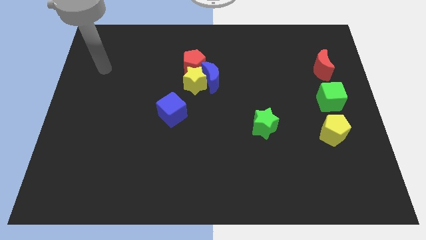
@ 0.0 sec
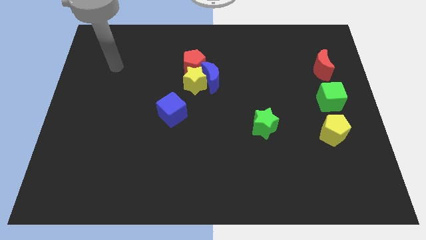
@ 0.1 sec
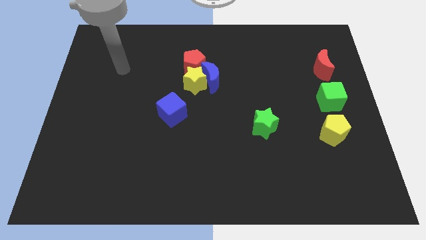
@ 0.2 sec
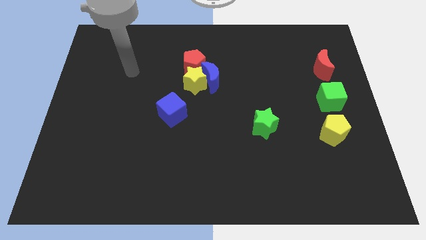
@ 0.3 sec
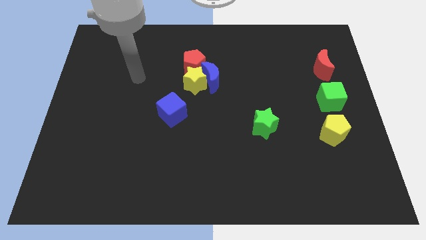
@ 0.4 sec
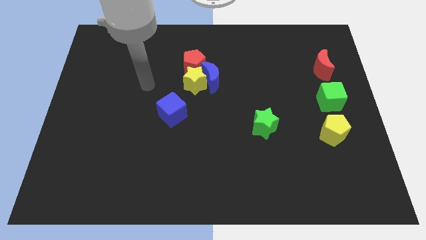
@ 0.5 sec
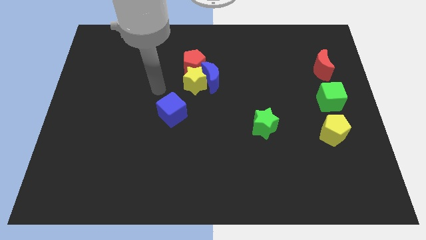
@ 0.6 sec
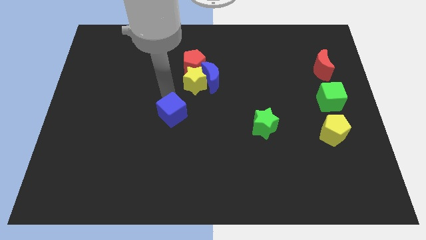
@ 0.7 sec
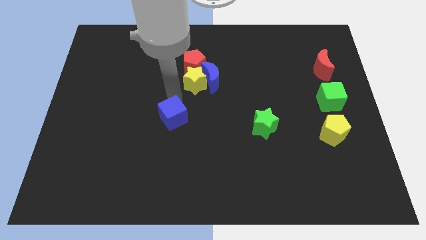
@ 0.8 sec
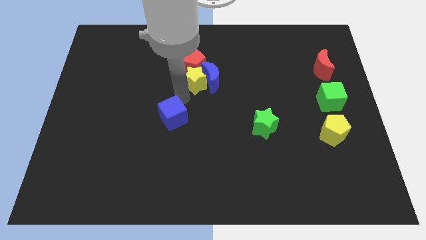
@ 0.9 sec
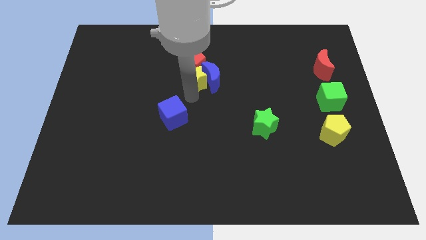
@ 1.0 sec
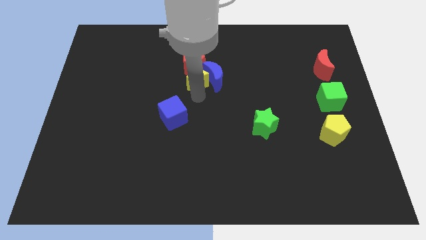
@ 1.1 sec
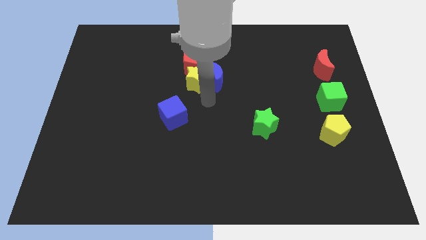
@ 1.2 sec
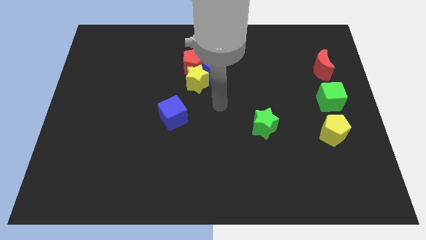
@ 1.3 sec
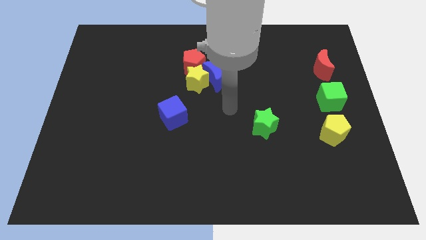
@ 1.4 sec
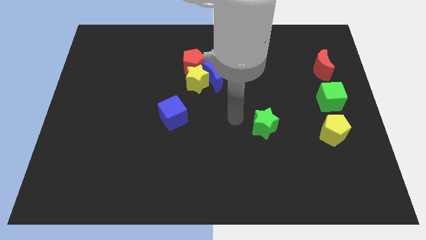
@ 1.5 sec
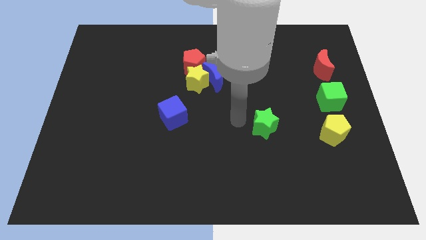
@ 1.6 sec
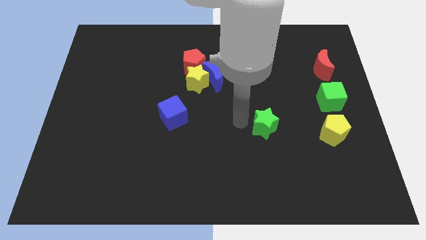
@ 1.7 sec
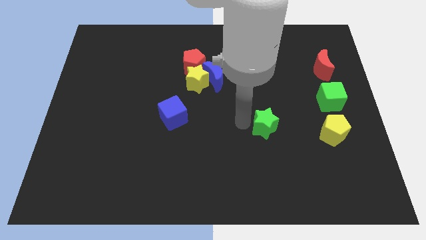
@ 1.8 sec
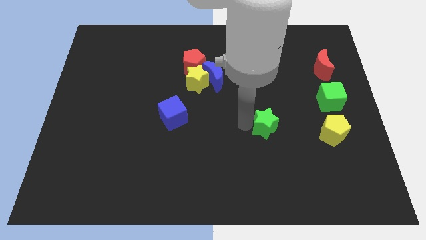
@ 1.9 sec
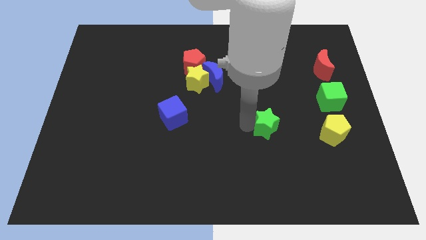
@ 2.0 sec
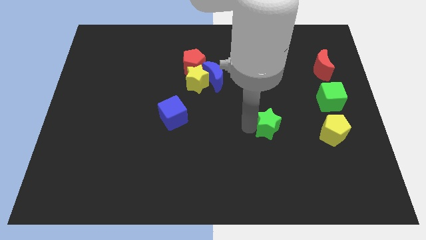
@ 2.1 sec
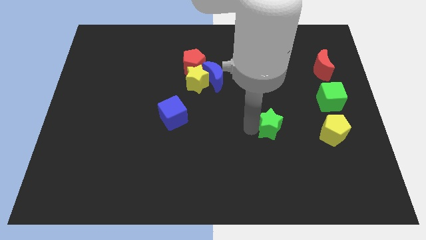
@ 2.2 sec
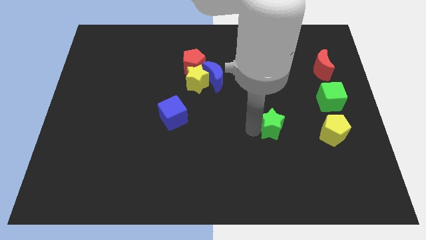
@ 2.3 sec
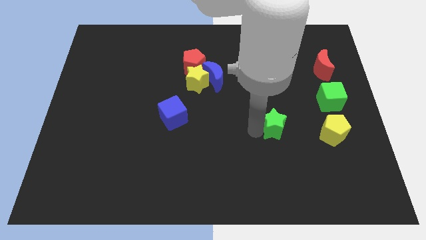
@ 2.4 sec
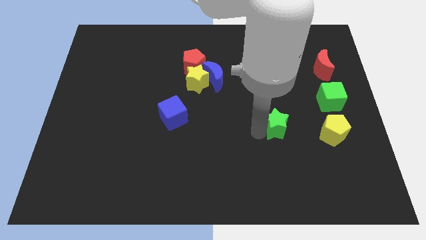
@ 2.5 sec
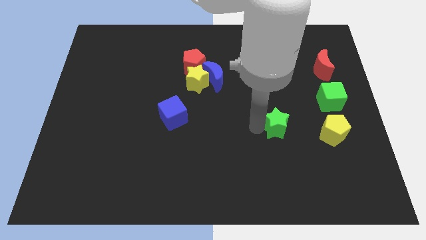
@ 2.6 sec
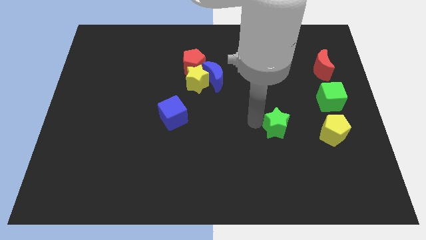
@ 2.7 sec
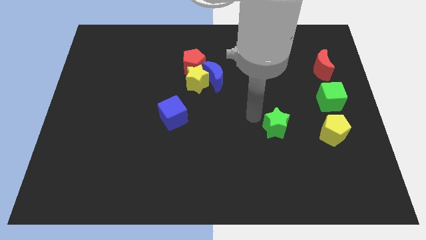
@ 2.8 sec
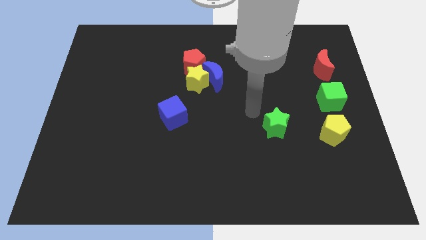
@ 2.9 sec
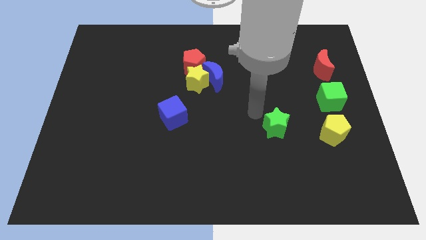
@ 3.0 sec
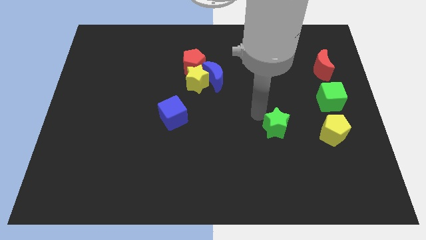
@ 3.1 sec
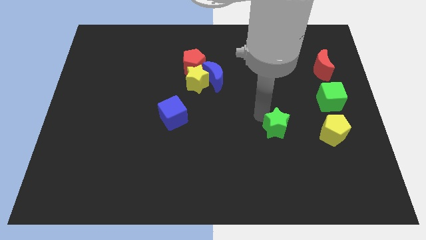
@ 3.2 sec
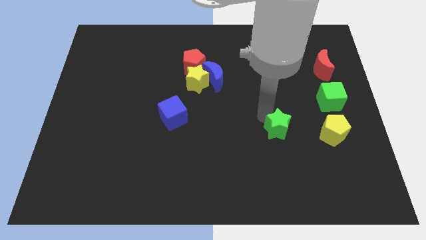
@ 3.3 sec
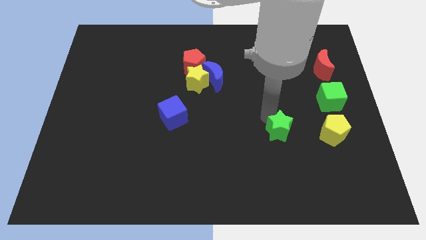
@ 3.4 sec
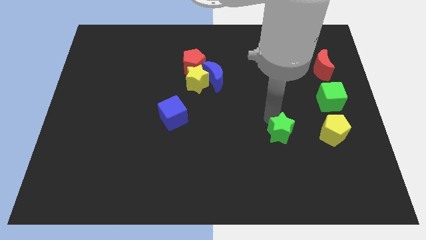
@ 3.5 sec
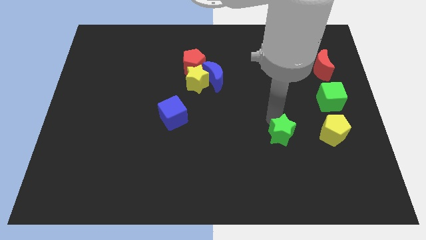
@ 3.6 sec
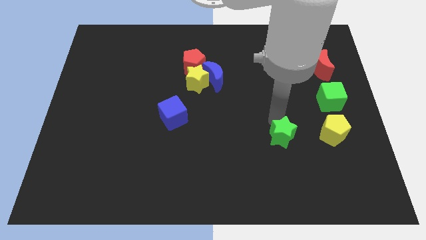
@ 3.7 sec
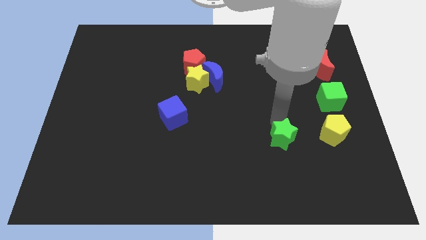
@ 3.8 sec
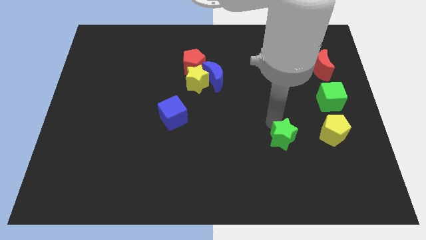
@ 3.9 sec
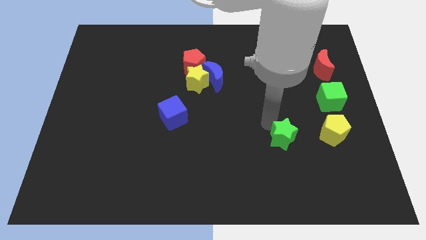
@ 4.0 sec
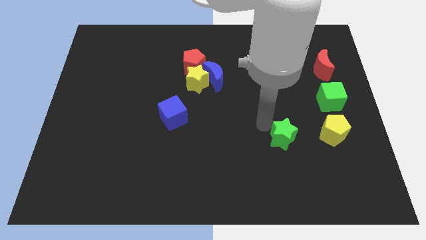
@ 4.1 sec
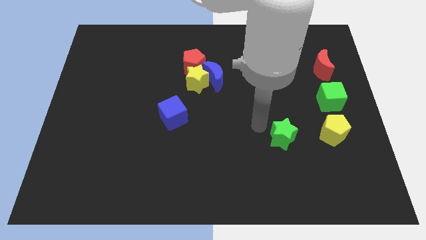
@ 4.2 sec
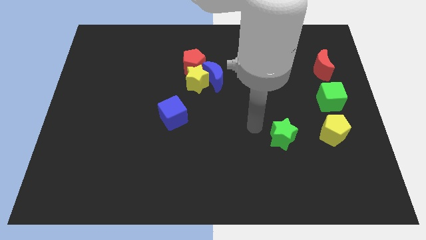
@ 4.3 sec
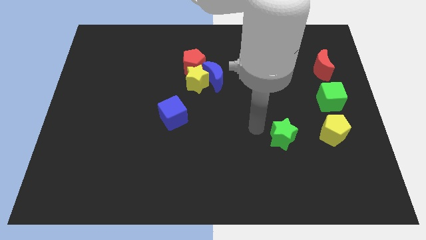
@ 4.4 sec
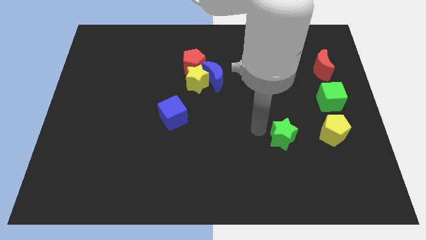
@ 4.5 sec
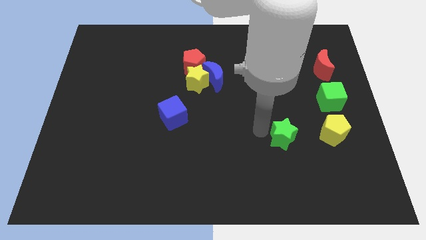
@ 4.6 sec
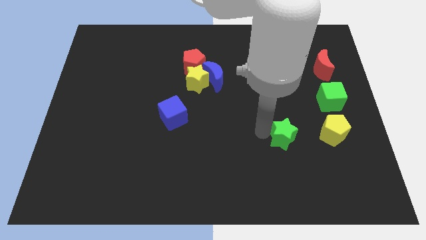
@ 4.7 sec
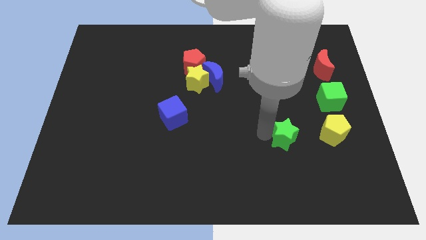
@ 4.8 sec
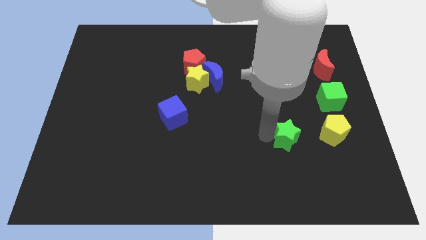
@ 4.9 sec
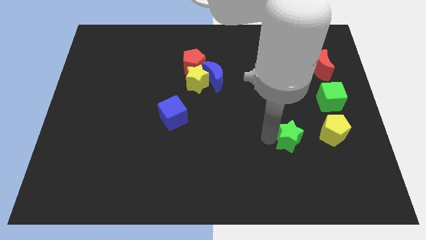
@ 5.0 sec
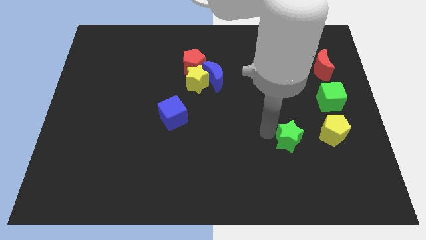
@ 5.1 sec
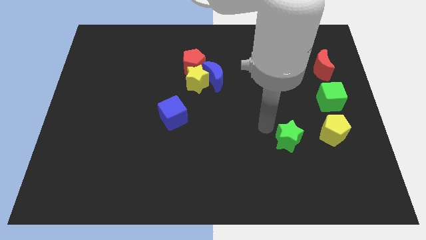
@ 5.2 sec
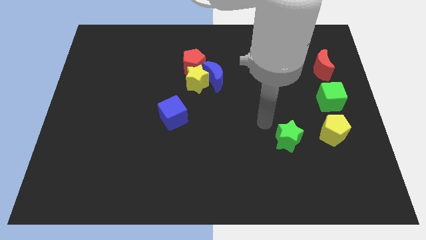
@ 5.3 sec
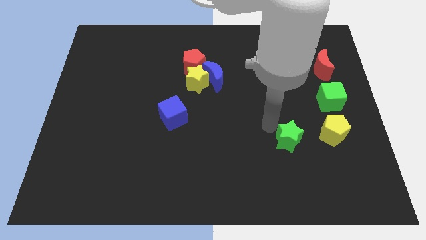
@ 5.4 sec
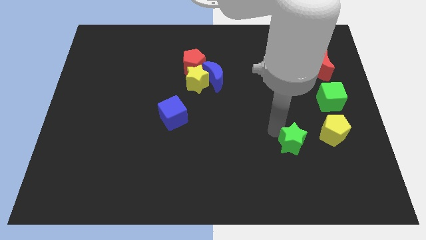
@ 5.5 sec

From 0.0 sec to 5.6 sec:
slightly push the green star down and then right

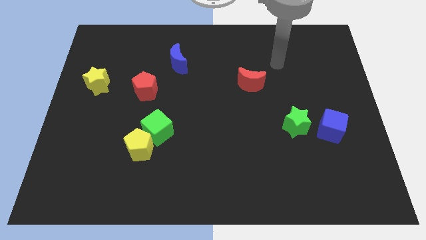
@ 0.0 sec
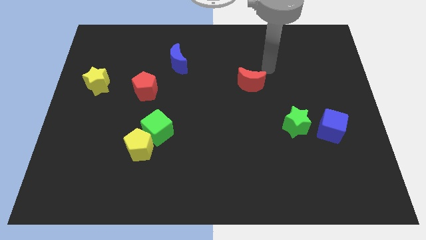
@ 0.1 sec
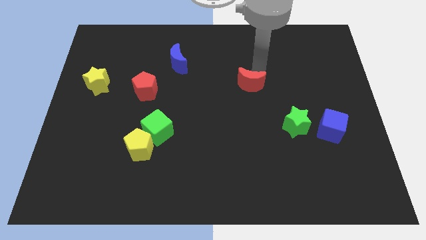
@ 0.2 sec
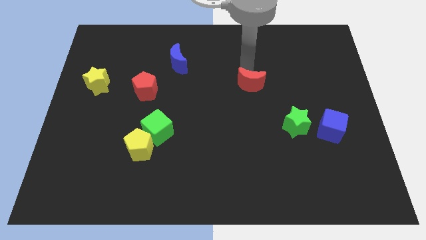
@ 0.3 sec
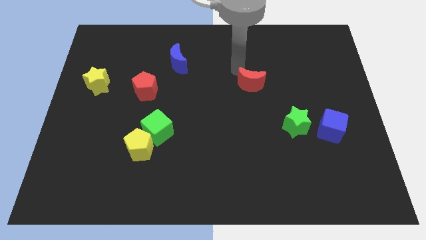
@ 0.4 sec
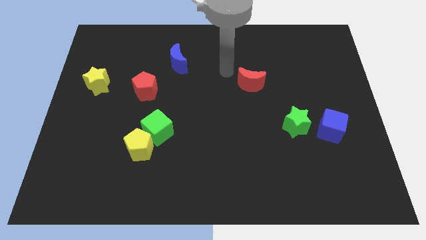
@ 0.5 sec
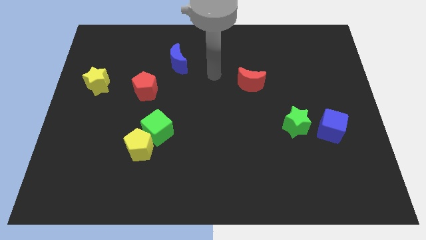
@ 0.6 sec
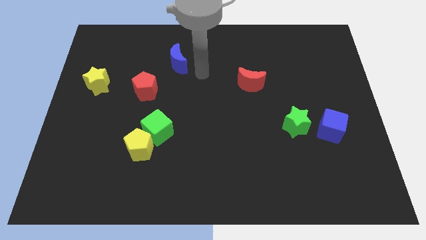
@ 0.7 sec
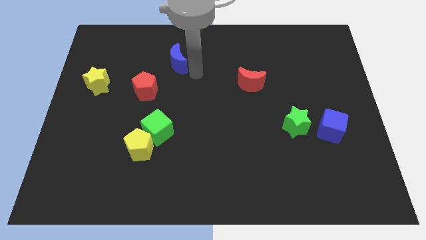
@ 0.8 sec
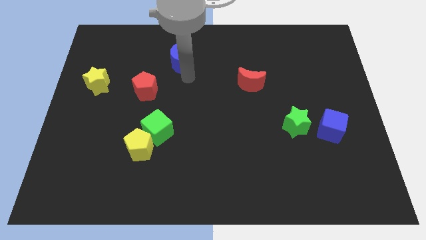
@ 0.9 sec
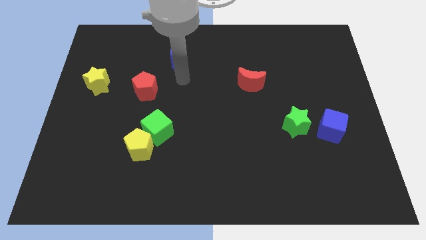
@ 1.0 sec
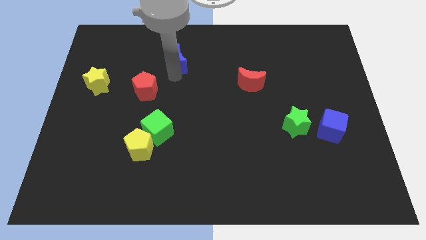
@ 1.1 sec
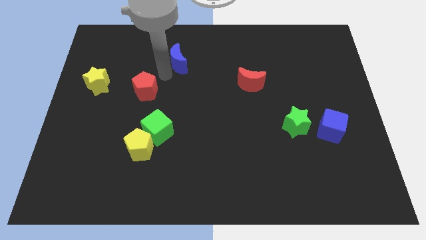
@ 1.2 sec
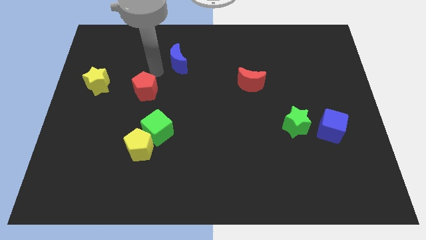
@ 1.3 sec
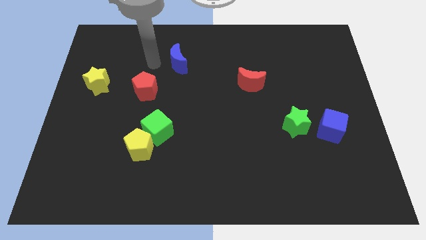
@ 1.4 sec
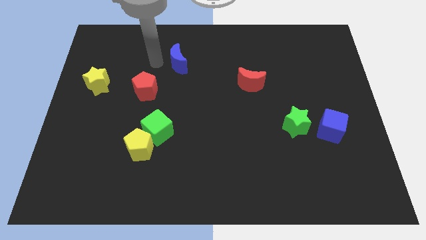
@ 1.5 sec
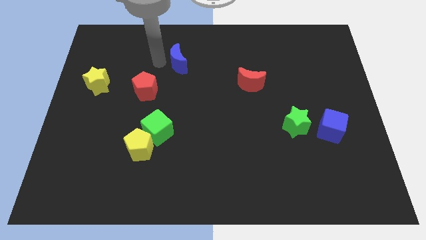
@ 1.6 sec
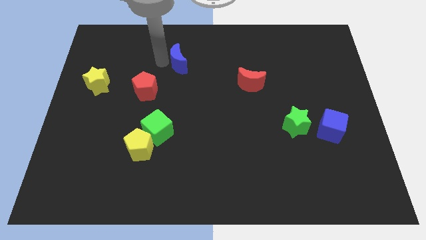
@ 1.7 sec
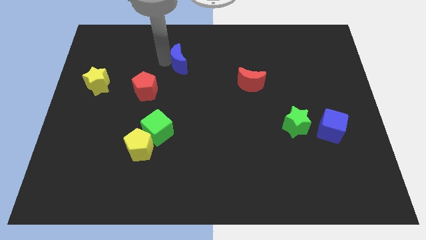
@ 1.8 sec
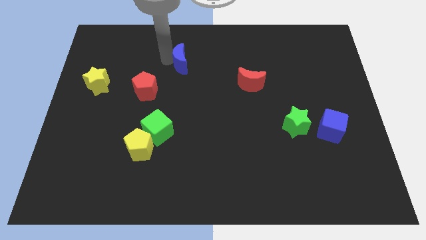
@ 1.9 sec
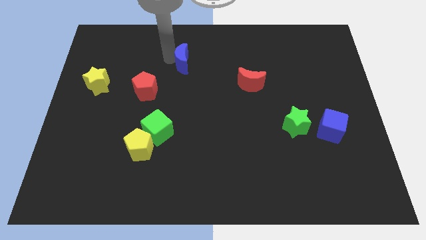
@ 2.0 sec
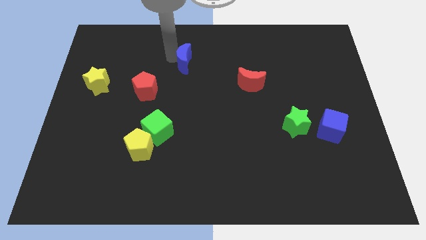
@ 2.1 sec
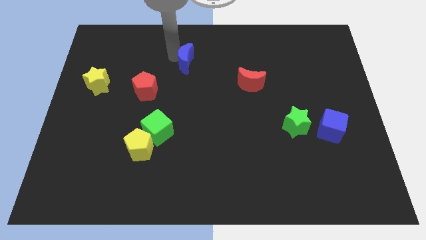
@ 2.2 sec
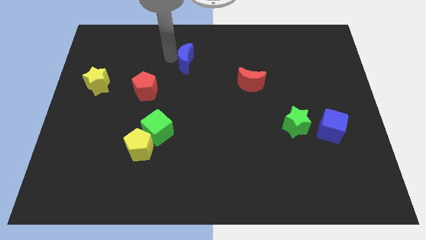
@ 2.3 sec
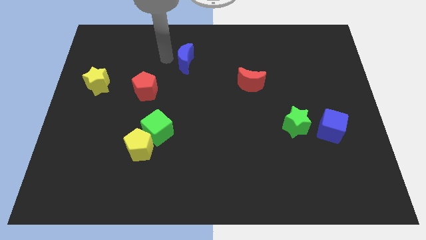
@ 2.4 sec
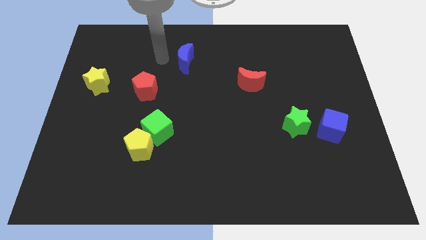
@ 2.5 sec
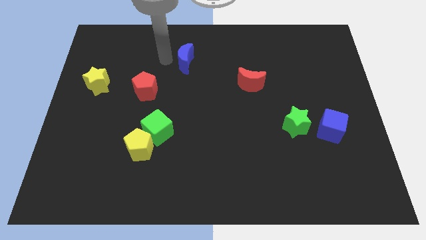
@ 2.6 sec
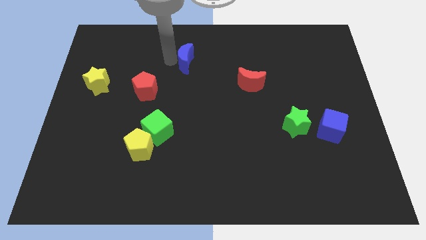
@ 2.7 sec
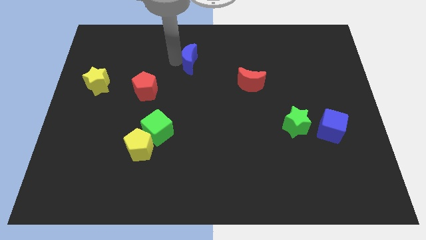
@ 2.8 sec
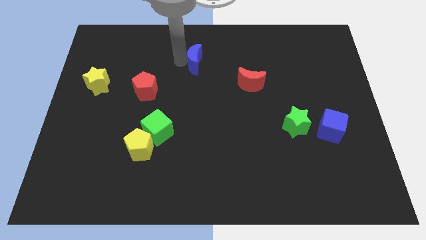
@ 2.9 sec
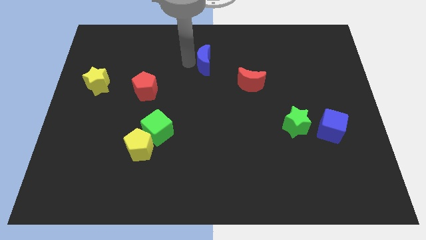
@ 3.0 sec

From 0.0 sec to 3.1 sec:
slide the blue moon right a bit
